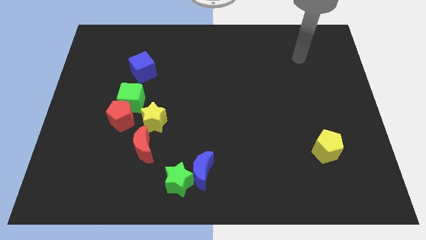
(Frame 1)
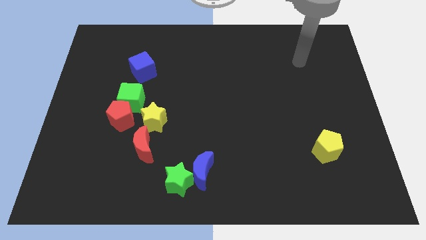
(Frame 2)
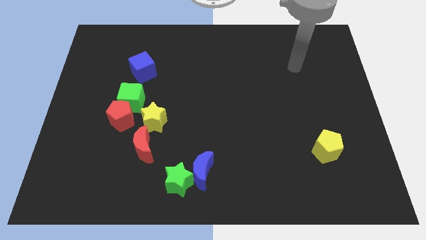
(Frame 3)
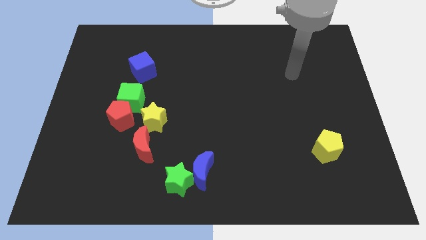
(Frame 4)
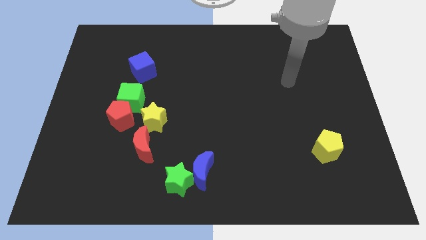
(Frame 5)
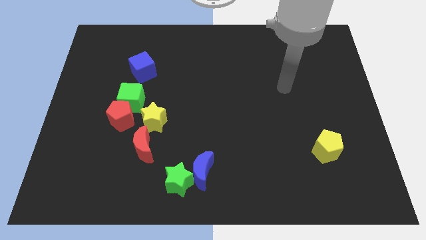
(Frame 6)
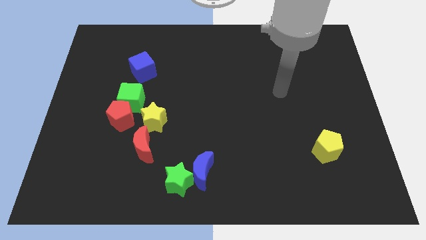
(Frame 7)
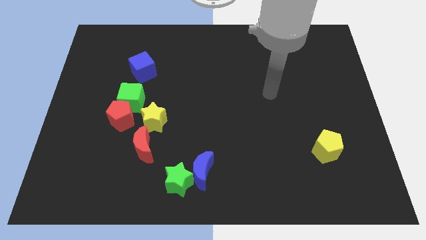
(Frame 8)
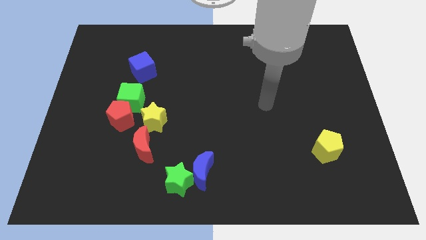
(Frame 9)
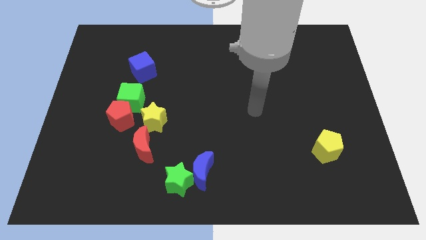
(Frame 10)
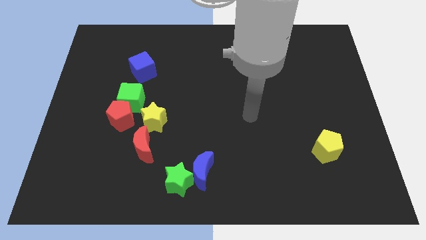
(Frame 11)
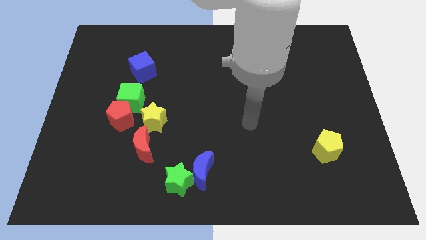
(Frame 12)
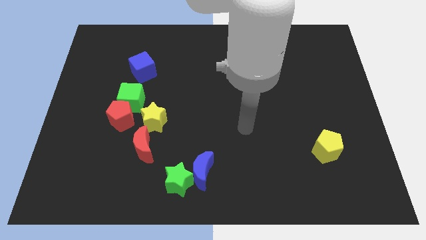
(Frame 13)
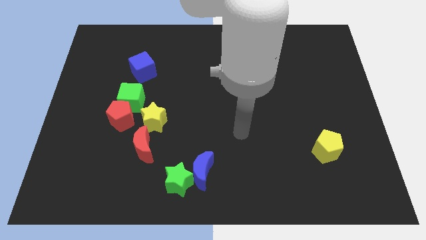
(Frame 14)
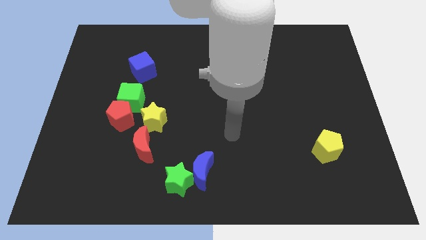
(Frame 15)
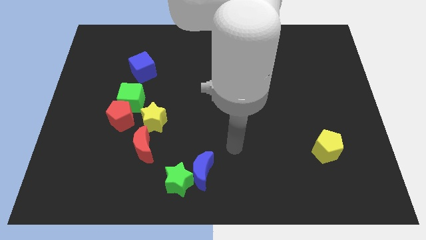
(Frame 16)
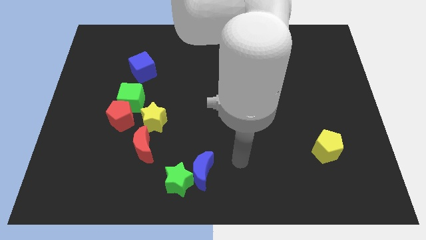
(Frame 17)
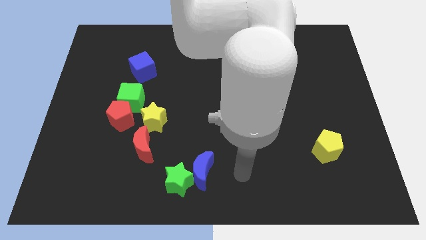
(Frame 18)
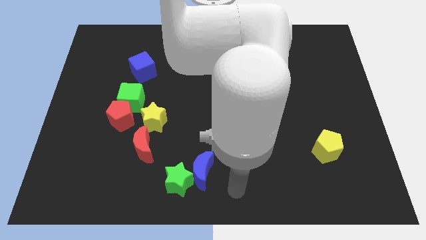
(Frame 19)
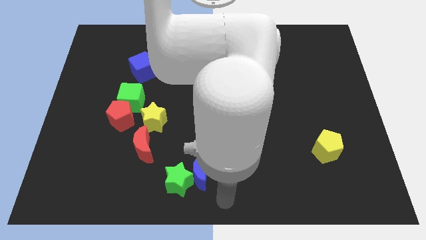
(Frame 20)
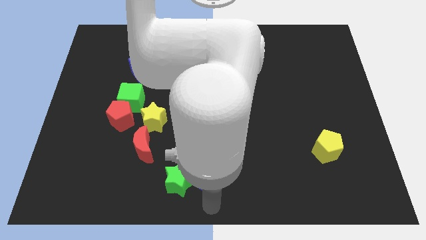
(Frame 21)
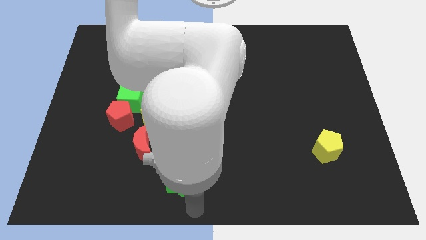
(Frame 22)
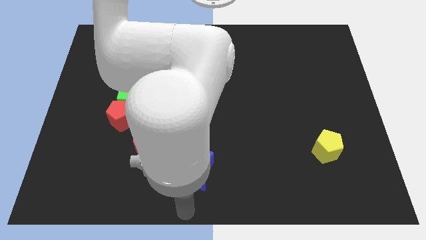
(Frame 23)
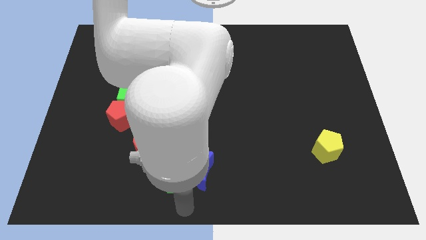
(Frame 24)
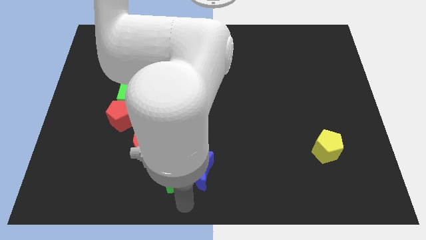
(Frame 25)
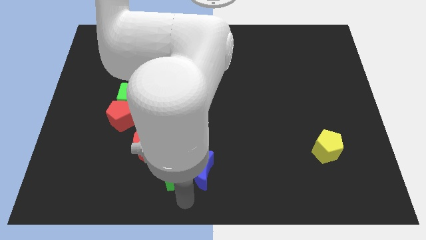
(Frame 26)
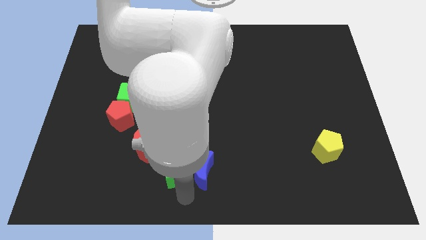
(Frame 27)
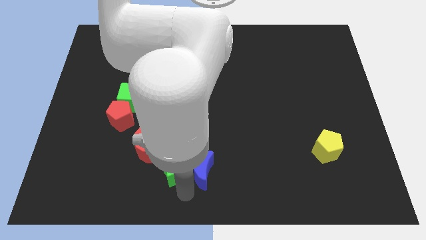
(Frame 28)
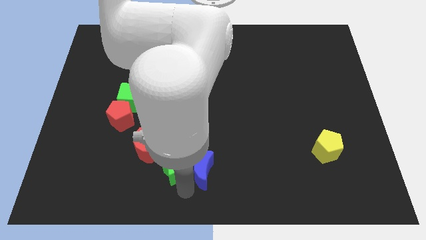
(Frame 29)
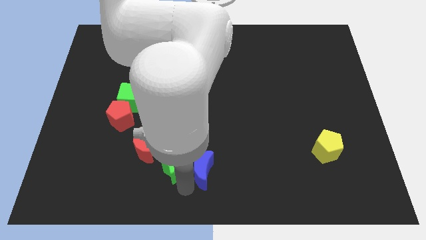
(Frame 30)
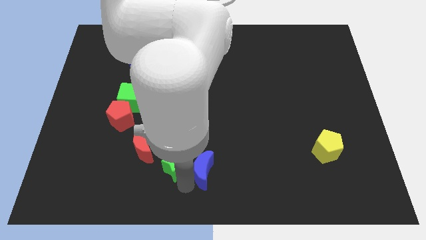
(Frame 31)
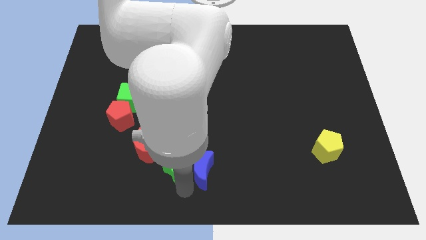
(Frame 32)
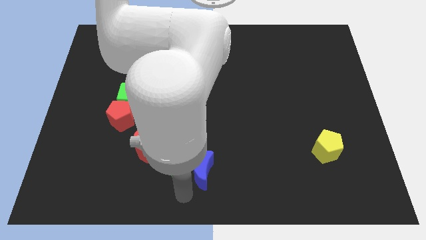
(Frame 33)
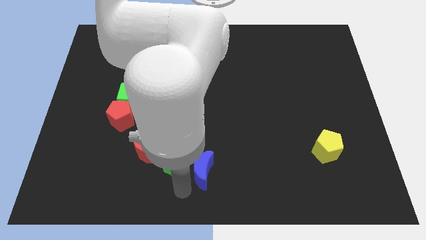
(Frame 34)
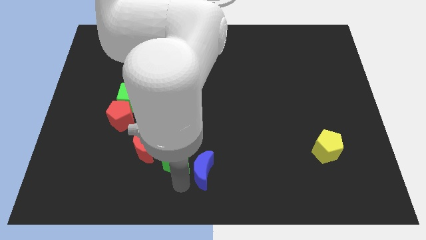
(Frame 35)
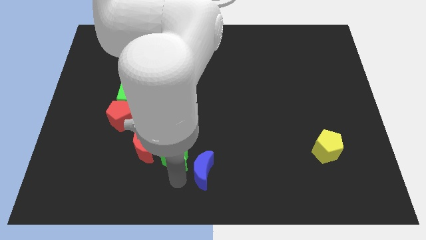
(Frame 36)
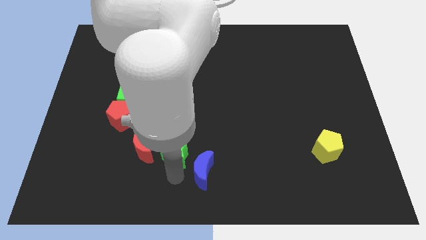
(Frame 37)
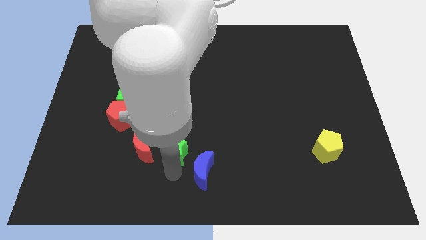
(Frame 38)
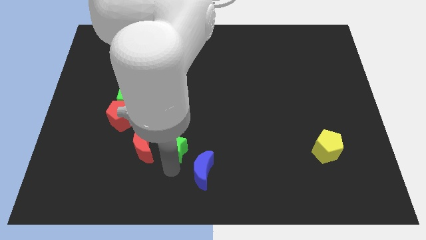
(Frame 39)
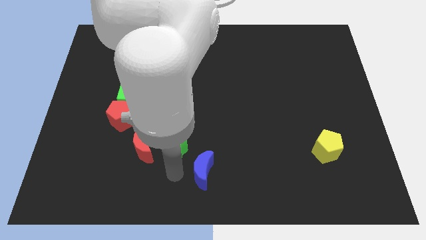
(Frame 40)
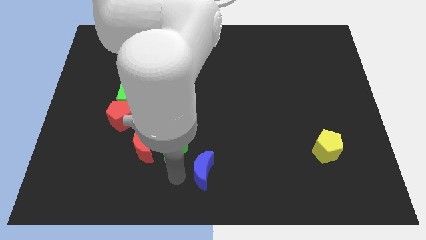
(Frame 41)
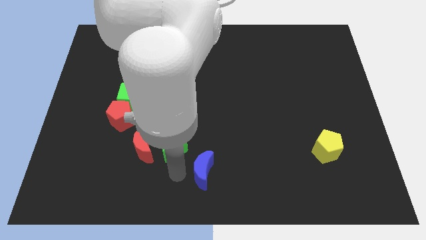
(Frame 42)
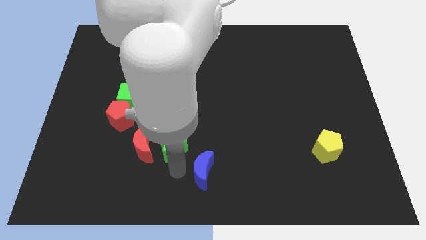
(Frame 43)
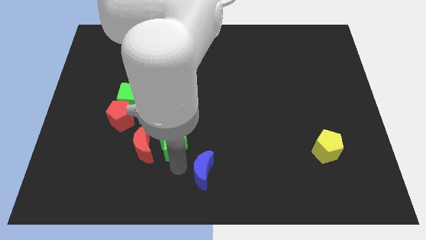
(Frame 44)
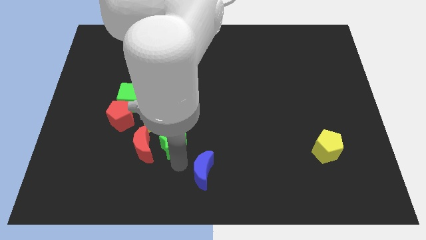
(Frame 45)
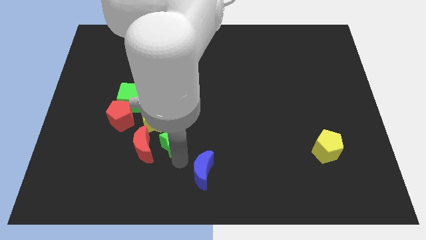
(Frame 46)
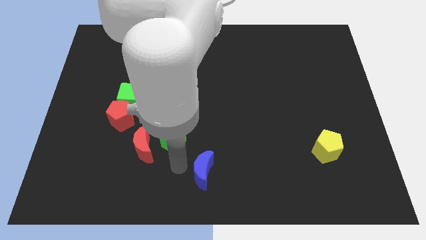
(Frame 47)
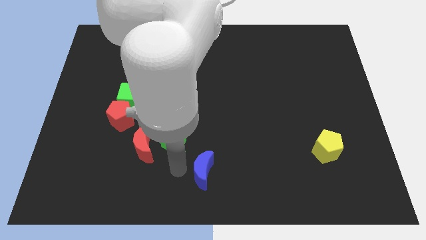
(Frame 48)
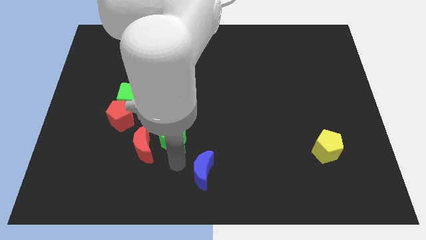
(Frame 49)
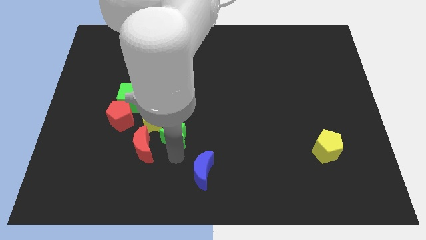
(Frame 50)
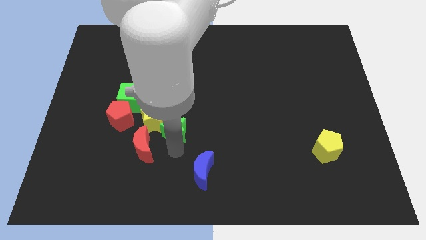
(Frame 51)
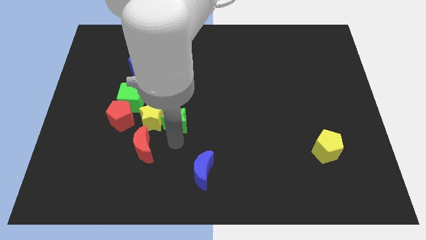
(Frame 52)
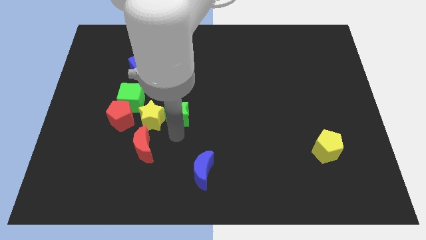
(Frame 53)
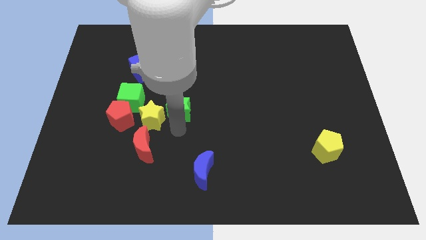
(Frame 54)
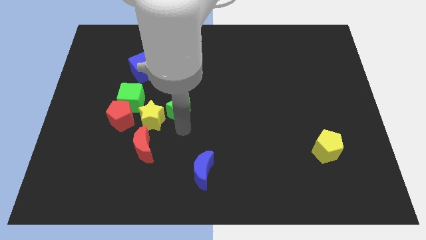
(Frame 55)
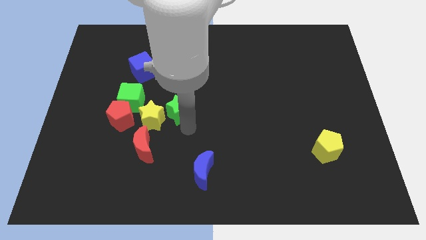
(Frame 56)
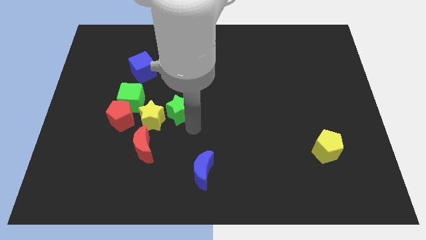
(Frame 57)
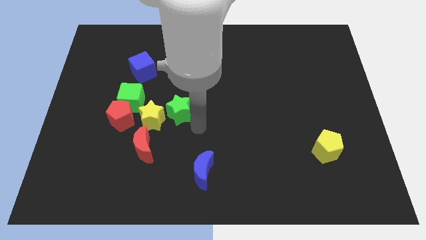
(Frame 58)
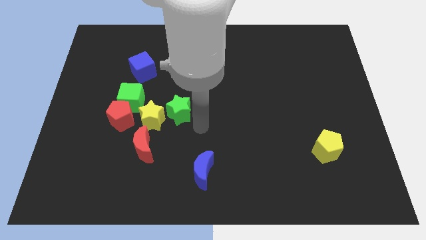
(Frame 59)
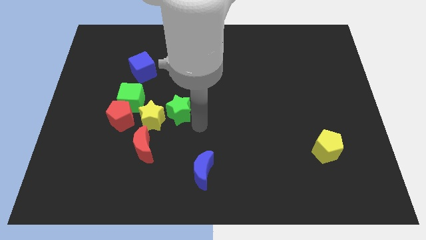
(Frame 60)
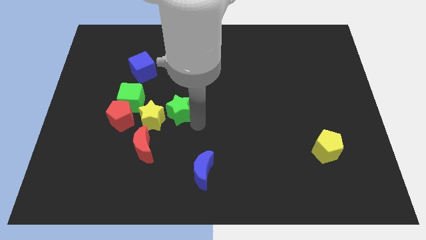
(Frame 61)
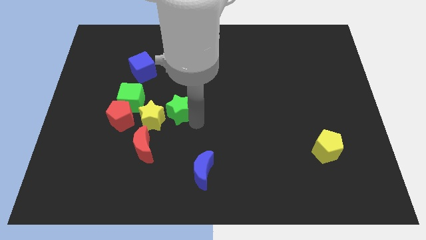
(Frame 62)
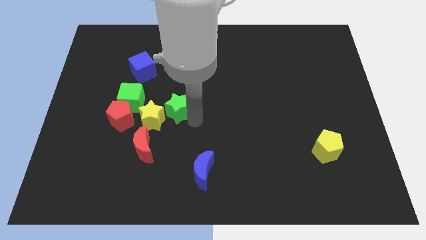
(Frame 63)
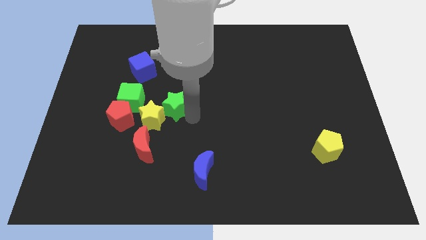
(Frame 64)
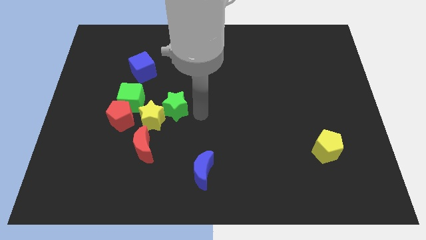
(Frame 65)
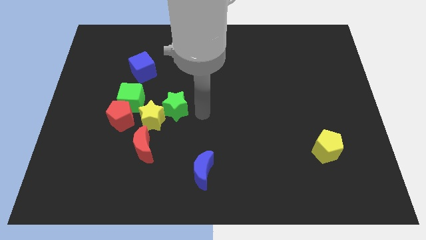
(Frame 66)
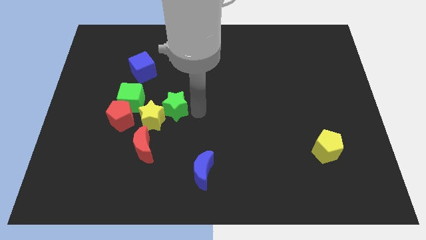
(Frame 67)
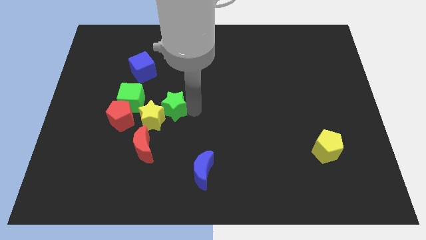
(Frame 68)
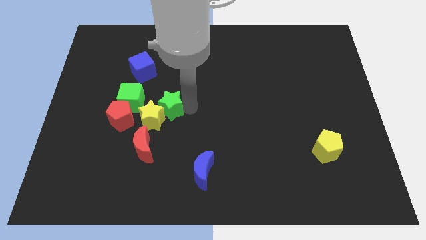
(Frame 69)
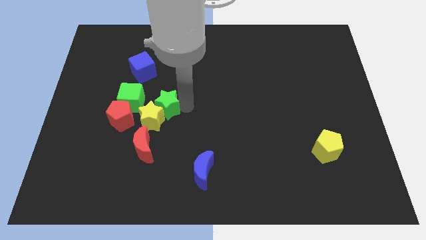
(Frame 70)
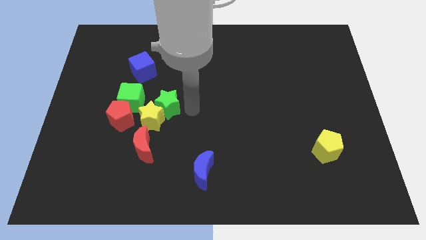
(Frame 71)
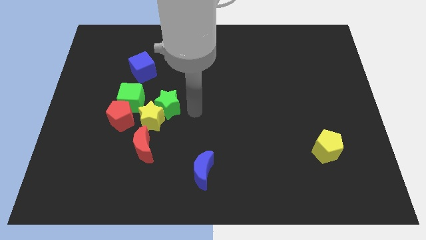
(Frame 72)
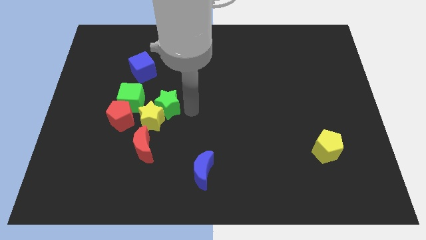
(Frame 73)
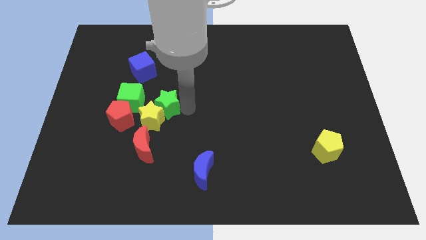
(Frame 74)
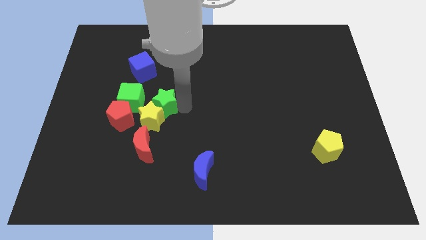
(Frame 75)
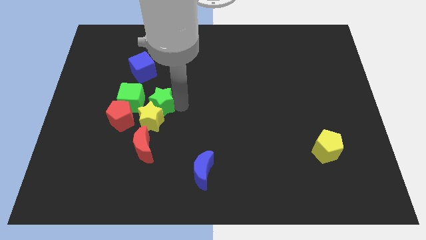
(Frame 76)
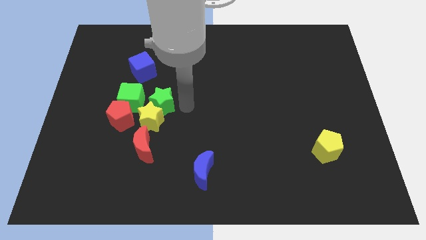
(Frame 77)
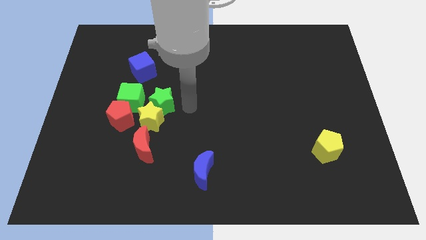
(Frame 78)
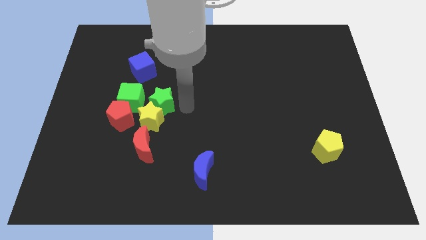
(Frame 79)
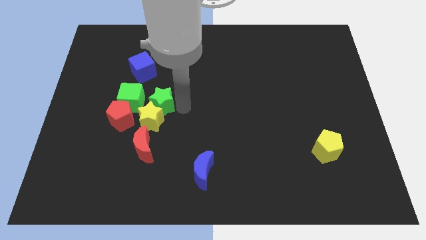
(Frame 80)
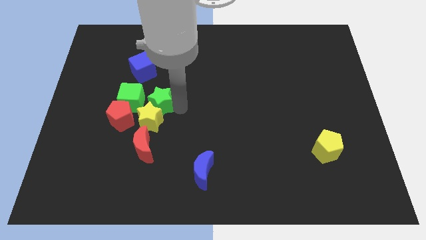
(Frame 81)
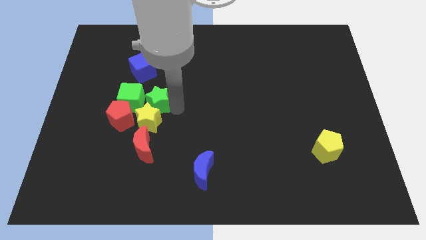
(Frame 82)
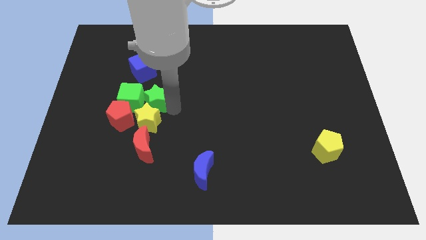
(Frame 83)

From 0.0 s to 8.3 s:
put the green star towards the green cube
